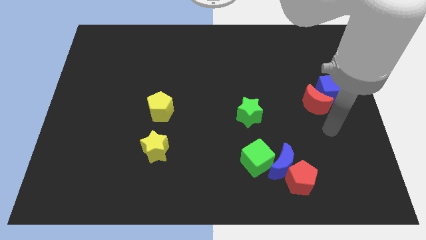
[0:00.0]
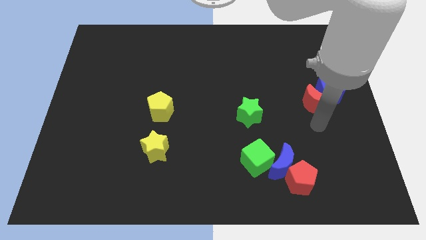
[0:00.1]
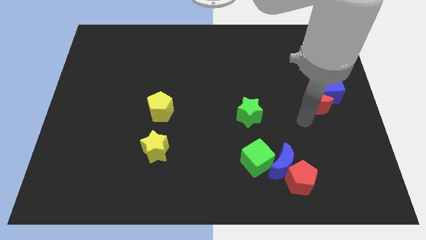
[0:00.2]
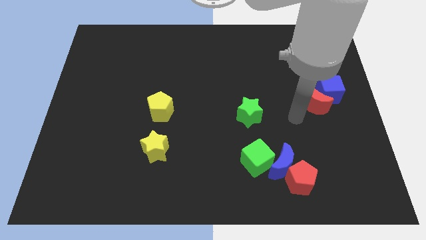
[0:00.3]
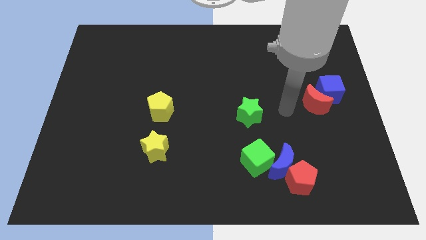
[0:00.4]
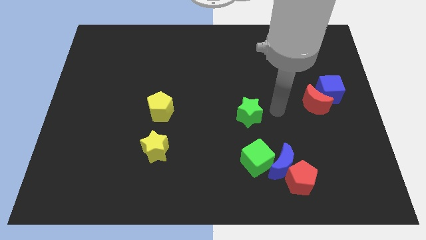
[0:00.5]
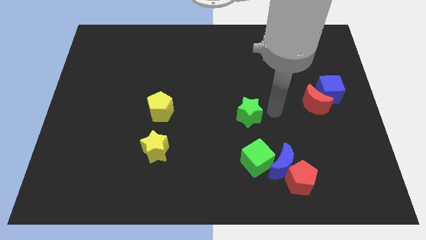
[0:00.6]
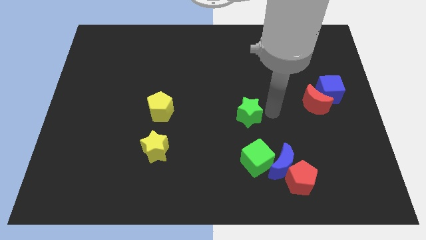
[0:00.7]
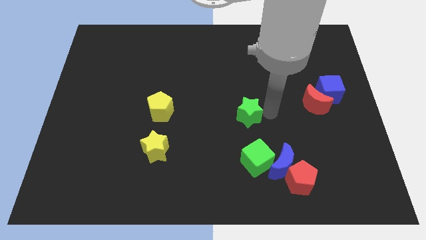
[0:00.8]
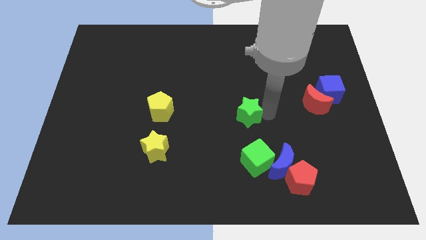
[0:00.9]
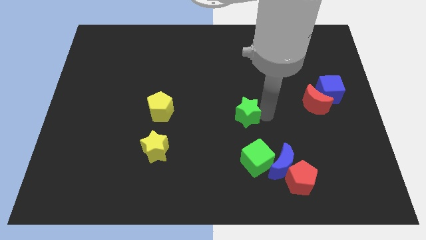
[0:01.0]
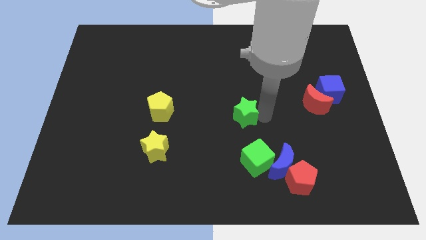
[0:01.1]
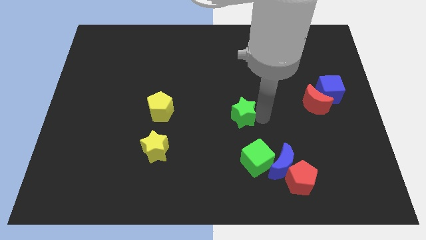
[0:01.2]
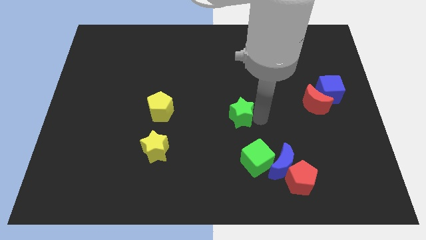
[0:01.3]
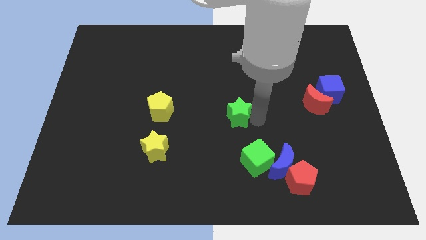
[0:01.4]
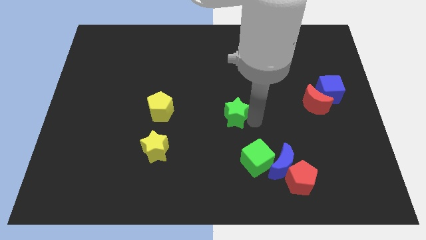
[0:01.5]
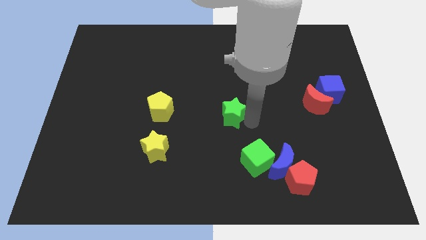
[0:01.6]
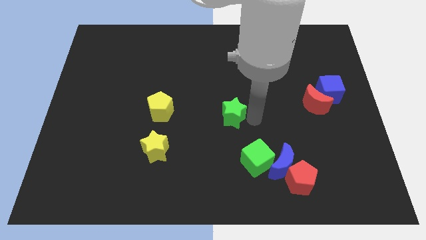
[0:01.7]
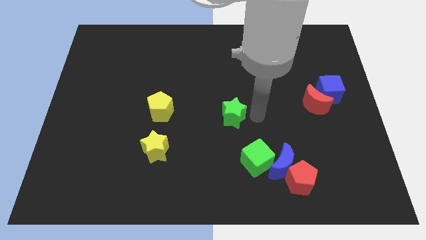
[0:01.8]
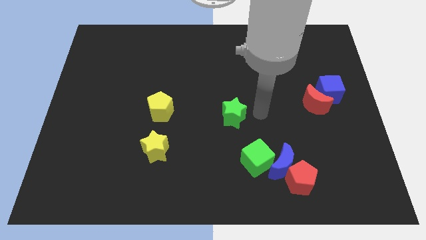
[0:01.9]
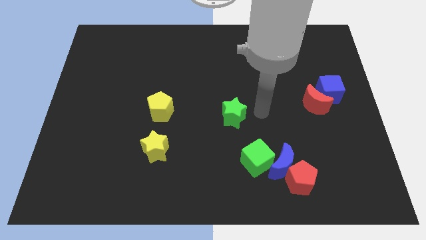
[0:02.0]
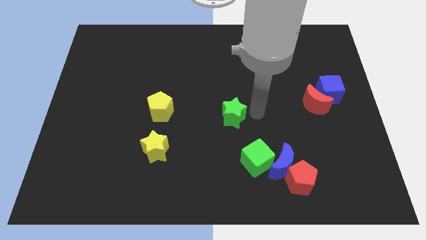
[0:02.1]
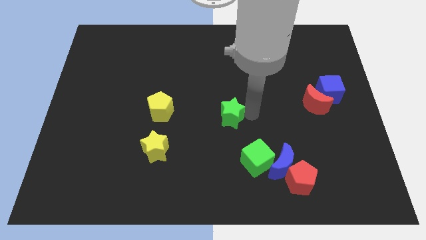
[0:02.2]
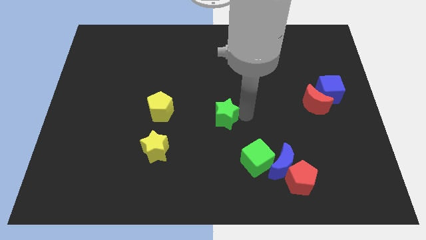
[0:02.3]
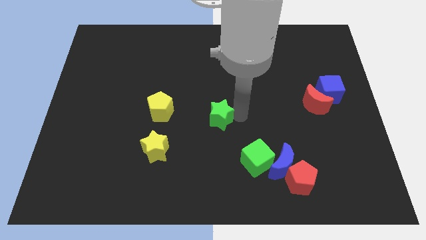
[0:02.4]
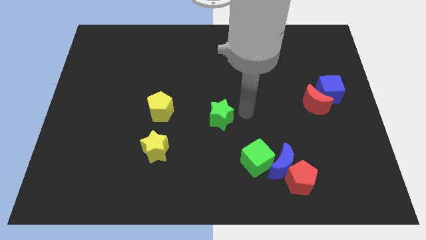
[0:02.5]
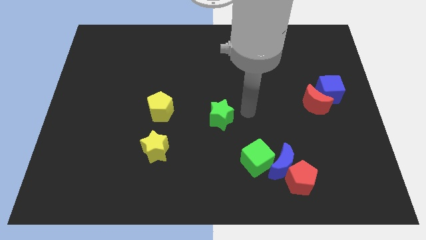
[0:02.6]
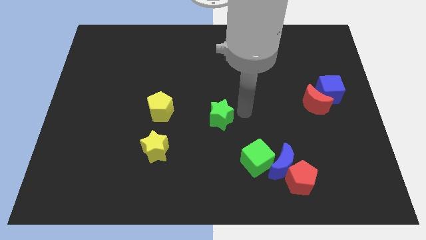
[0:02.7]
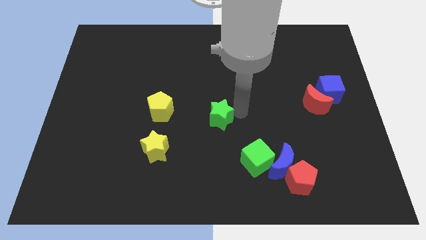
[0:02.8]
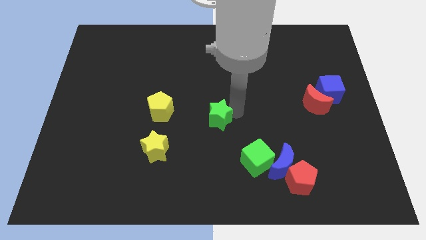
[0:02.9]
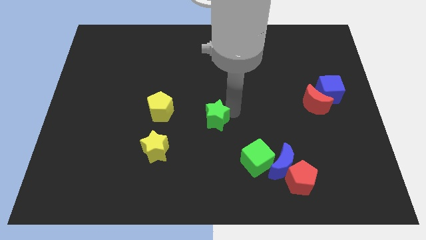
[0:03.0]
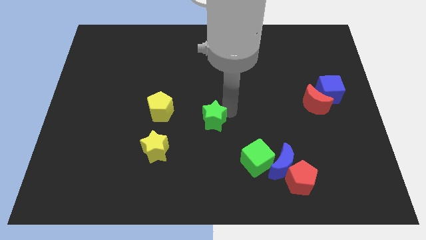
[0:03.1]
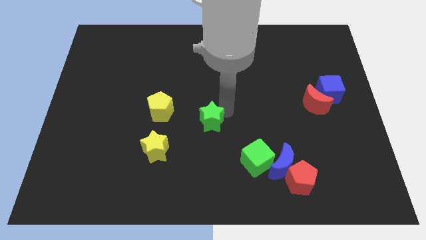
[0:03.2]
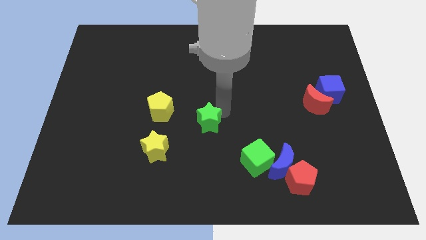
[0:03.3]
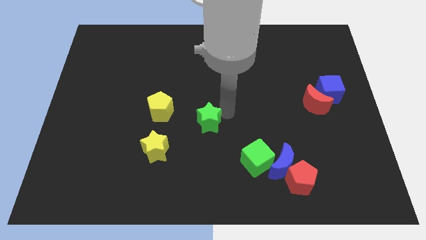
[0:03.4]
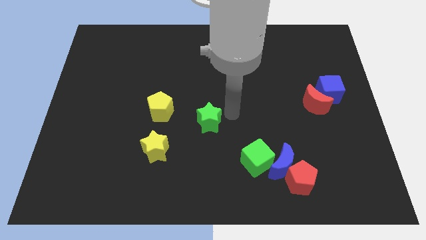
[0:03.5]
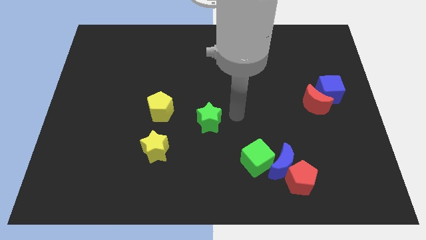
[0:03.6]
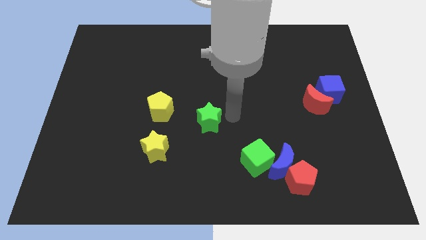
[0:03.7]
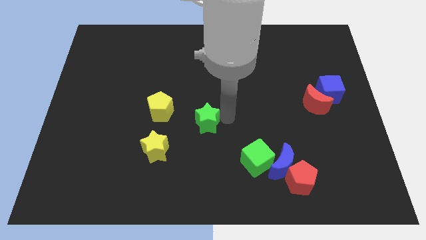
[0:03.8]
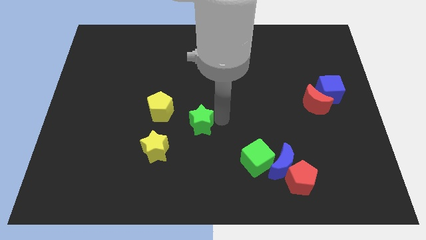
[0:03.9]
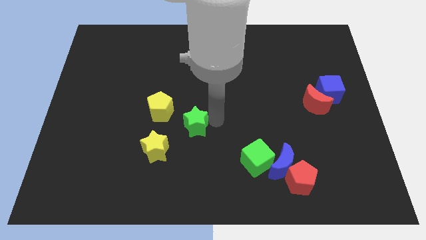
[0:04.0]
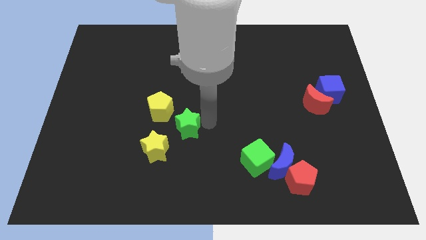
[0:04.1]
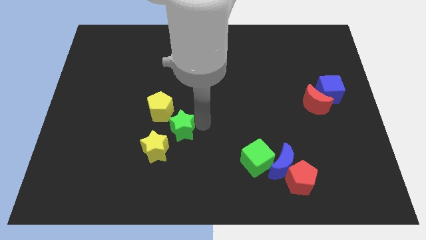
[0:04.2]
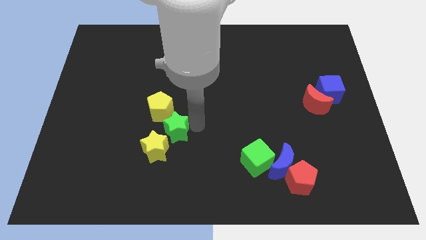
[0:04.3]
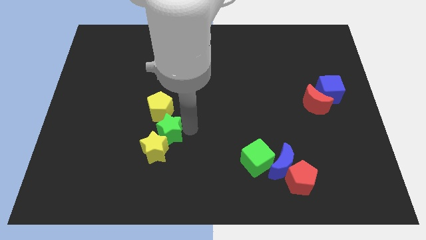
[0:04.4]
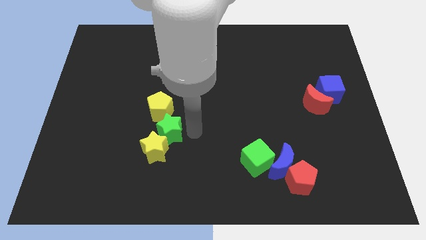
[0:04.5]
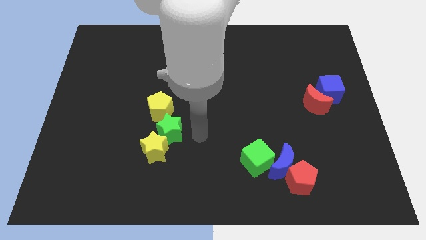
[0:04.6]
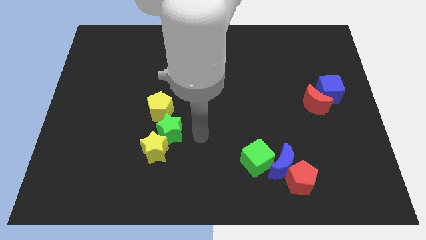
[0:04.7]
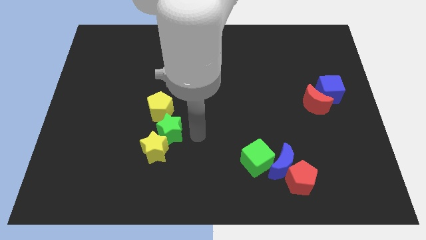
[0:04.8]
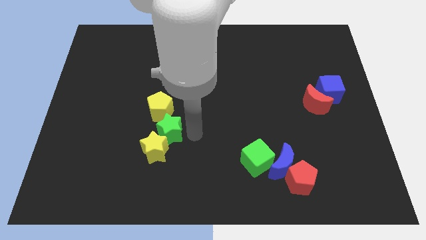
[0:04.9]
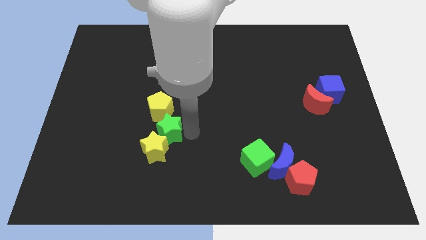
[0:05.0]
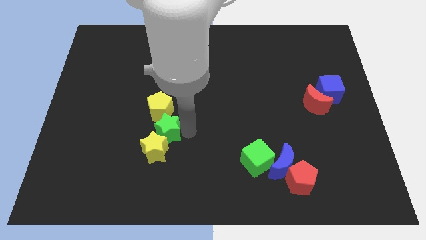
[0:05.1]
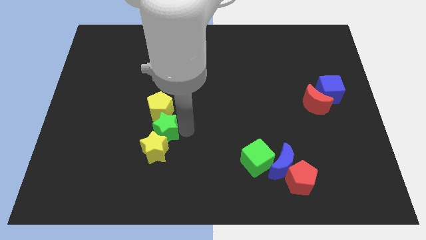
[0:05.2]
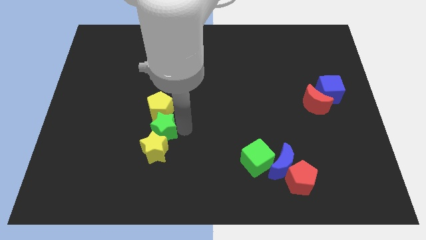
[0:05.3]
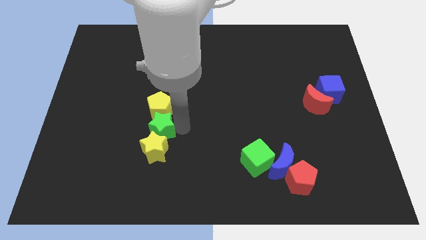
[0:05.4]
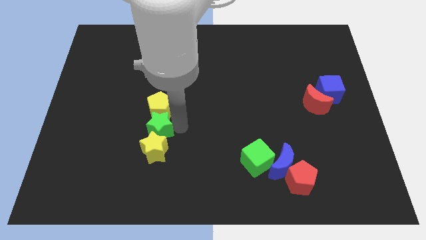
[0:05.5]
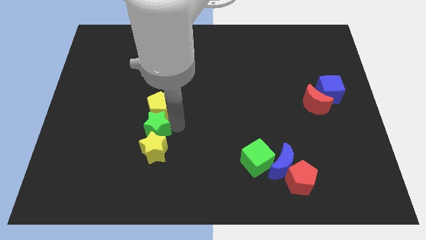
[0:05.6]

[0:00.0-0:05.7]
slide the green star left

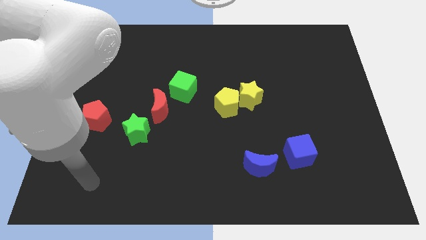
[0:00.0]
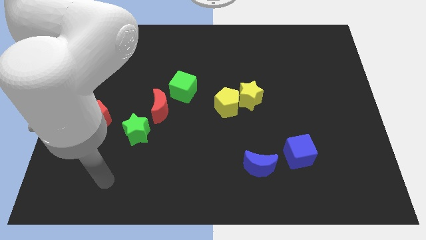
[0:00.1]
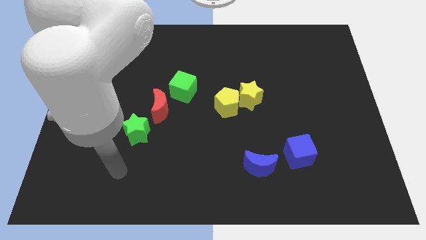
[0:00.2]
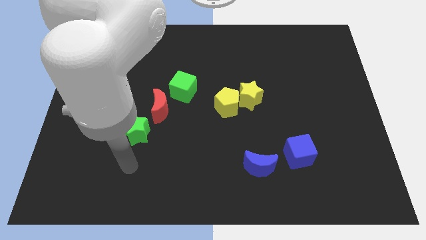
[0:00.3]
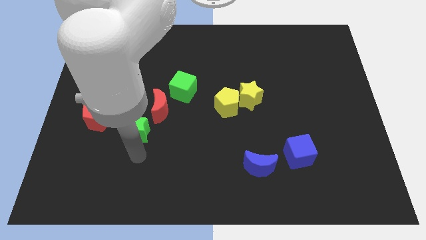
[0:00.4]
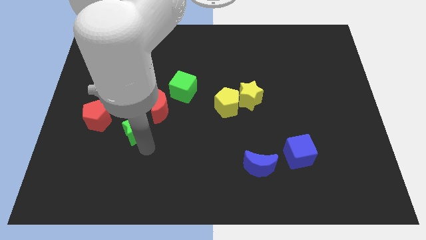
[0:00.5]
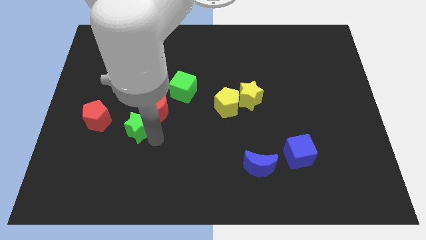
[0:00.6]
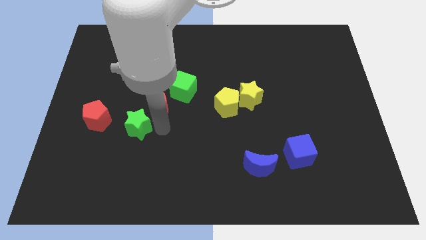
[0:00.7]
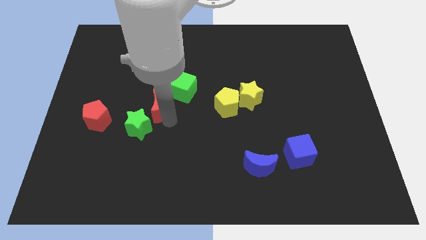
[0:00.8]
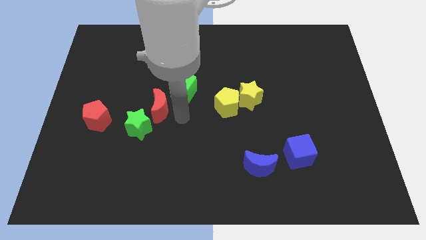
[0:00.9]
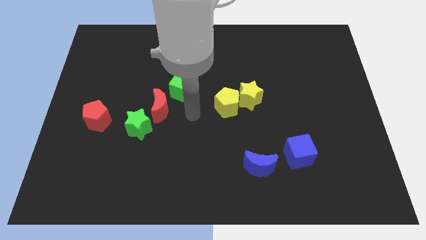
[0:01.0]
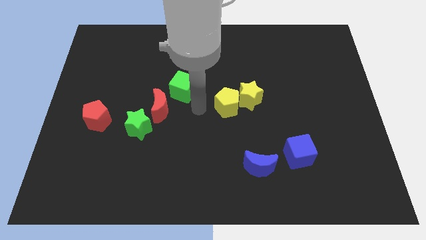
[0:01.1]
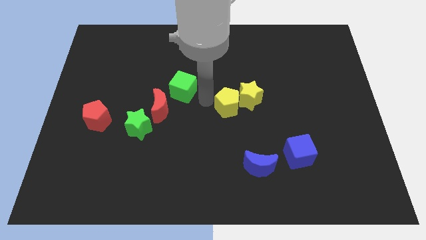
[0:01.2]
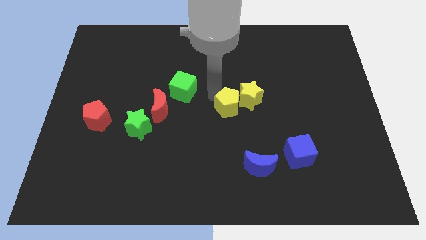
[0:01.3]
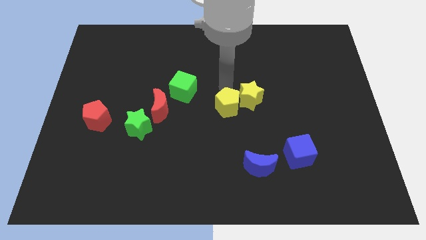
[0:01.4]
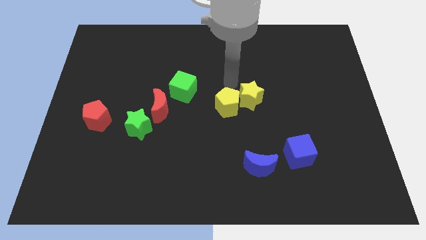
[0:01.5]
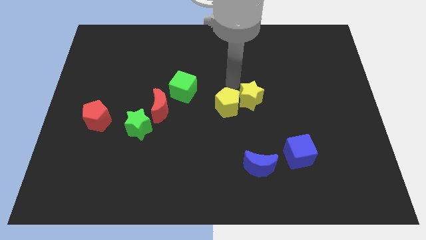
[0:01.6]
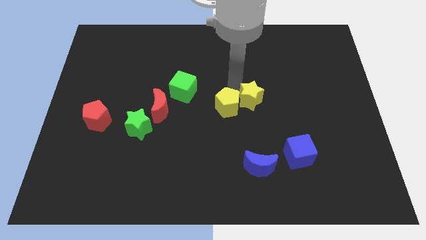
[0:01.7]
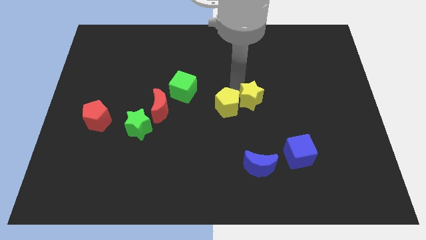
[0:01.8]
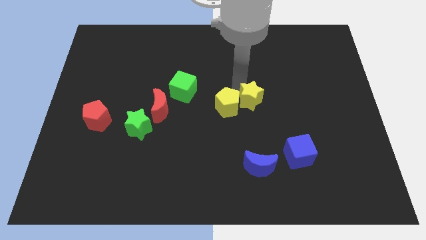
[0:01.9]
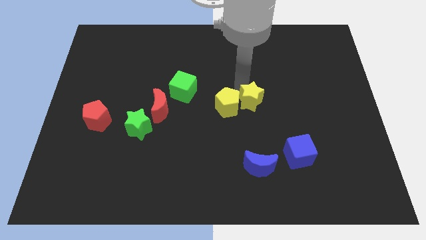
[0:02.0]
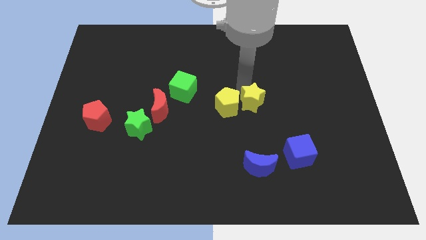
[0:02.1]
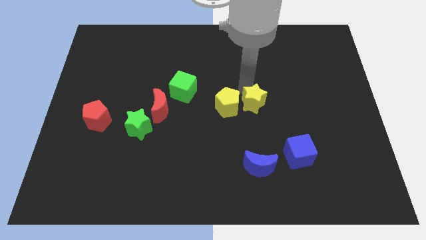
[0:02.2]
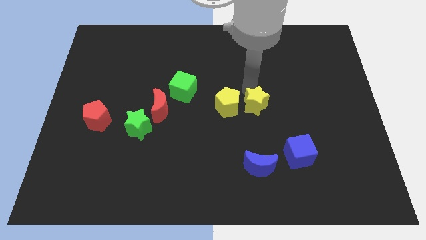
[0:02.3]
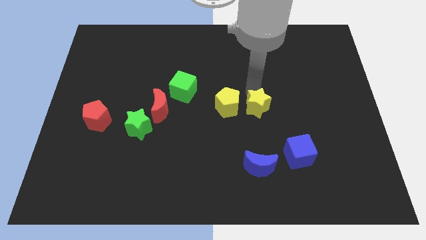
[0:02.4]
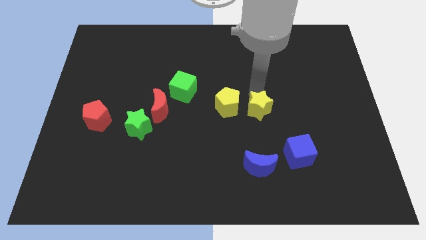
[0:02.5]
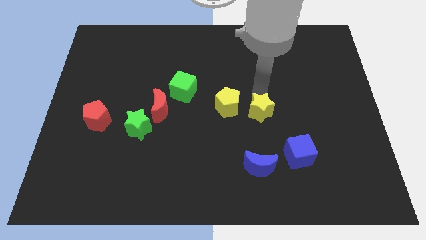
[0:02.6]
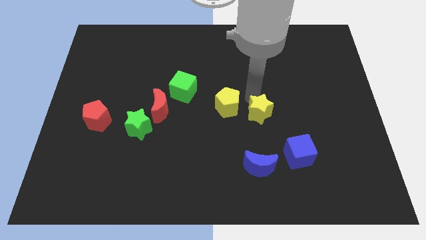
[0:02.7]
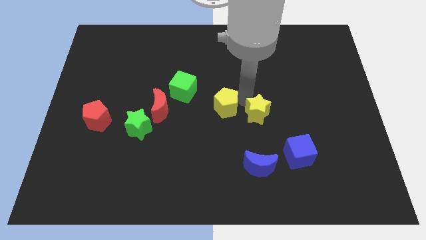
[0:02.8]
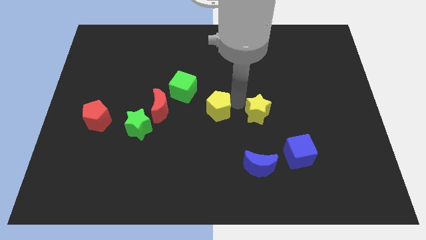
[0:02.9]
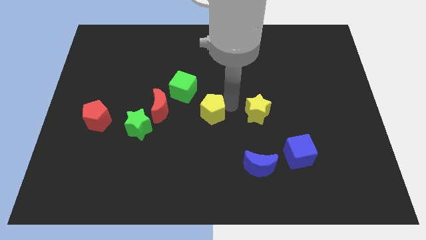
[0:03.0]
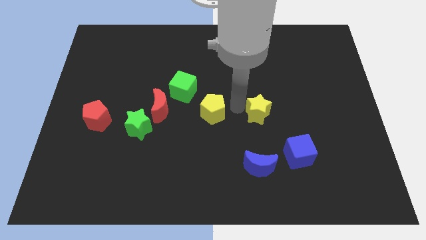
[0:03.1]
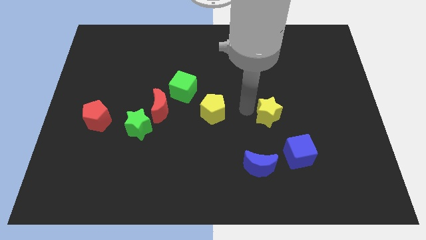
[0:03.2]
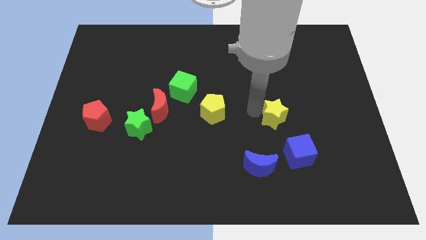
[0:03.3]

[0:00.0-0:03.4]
slightly push the yellow star down and right
